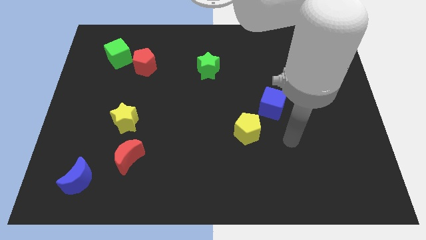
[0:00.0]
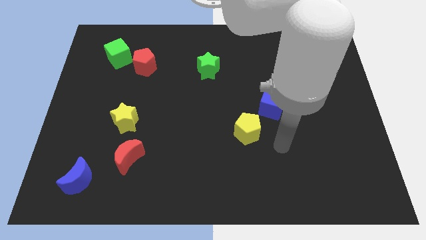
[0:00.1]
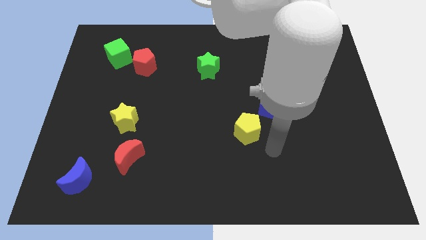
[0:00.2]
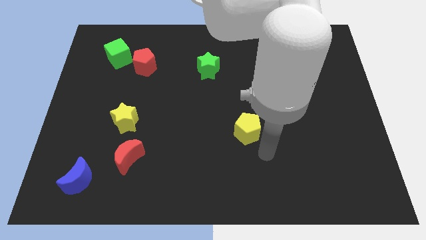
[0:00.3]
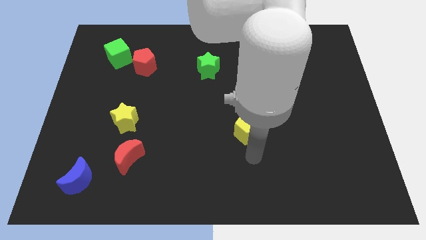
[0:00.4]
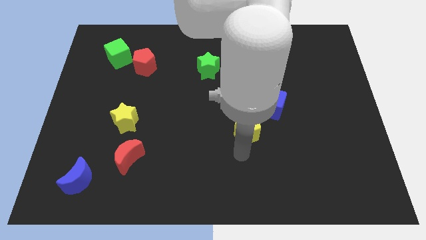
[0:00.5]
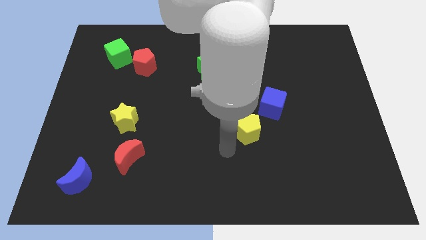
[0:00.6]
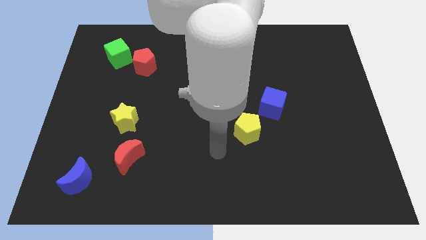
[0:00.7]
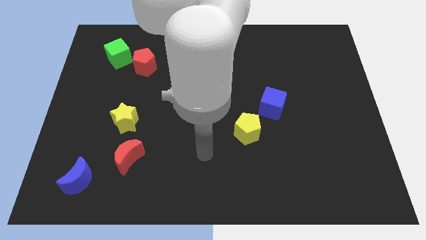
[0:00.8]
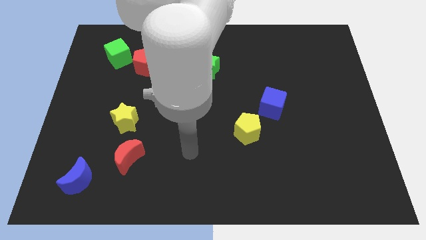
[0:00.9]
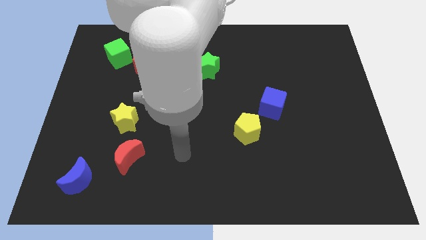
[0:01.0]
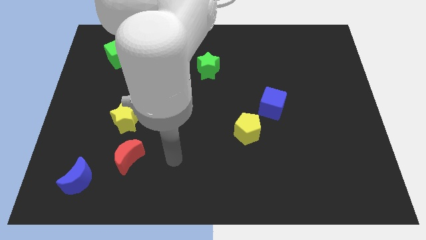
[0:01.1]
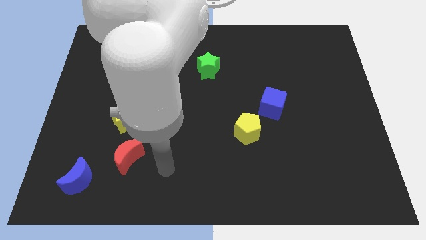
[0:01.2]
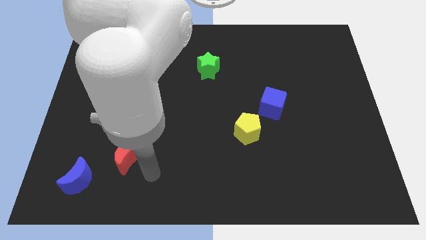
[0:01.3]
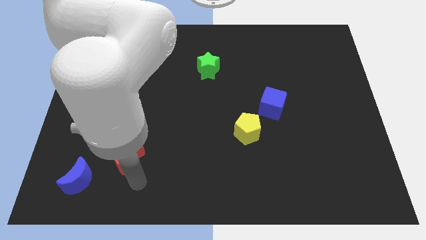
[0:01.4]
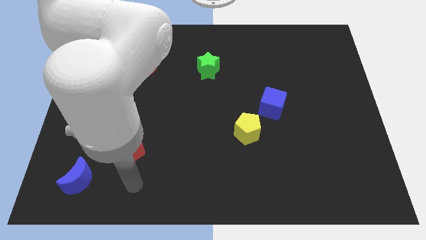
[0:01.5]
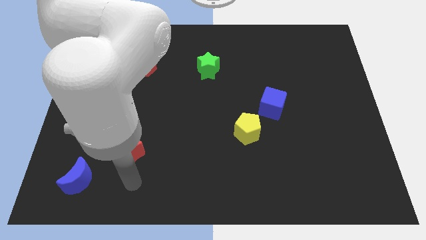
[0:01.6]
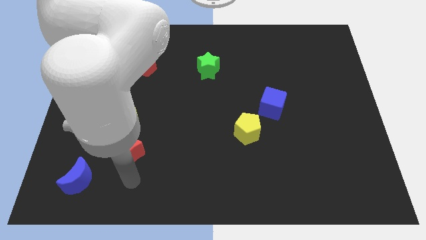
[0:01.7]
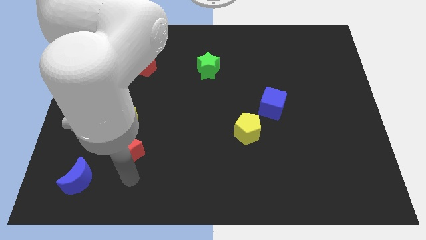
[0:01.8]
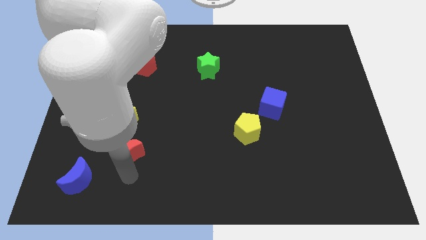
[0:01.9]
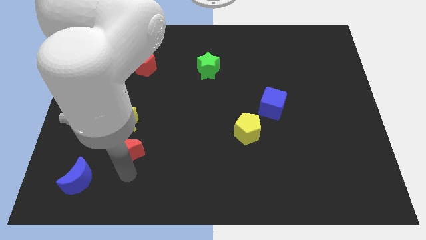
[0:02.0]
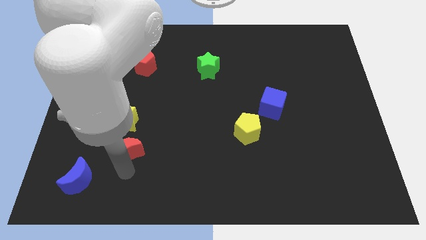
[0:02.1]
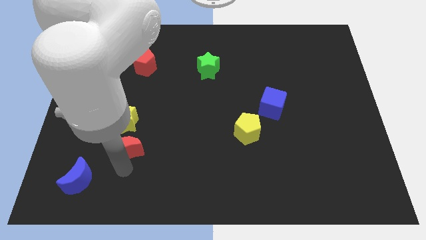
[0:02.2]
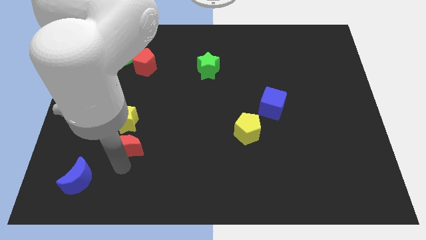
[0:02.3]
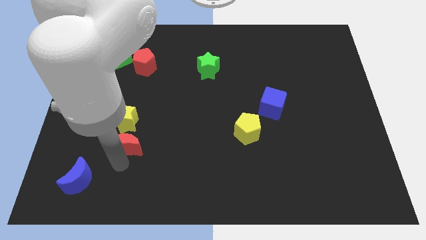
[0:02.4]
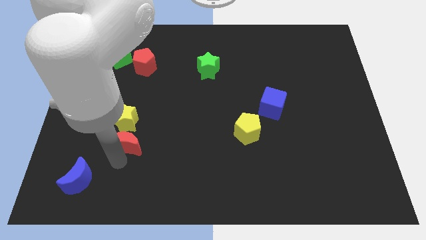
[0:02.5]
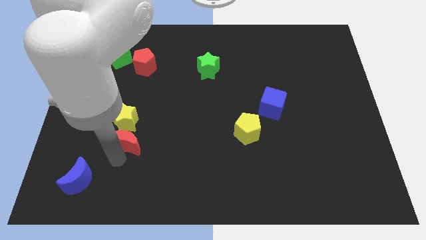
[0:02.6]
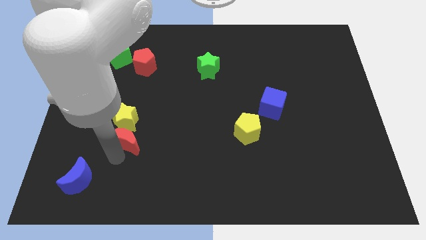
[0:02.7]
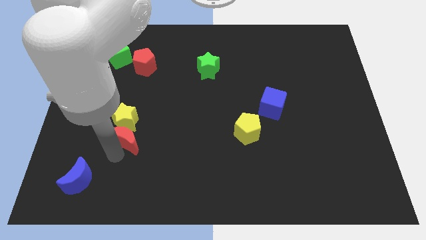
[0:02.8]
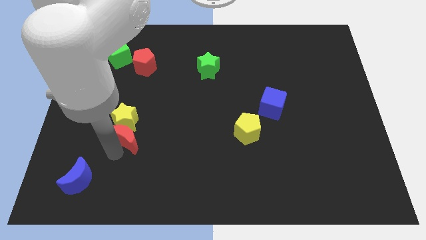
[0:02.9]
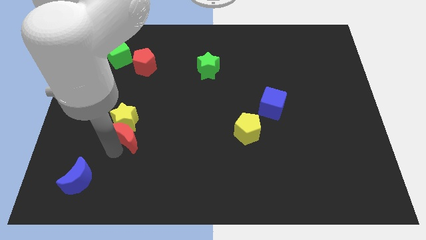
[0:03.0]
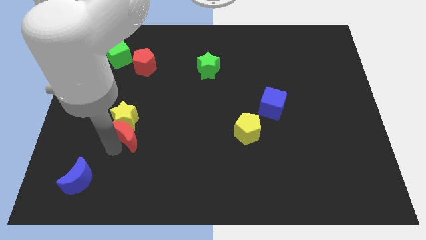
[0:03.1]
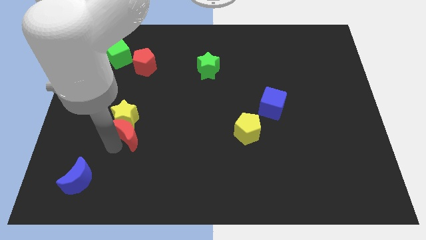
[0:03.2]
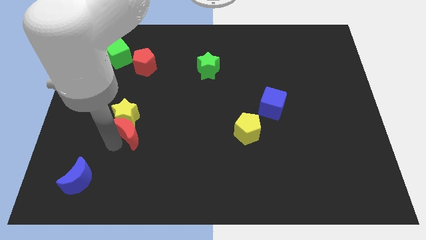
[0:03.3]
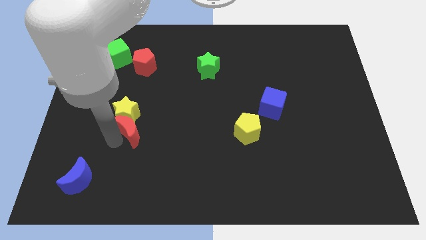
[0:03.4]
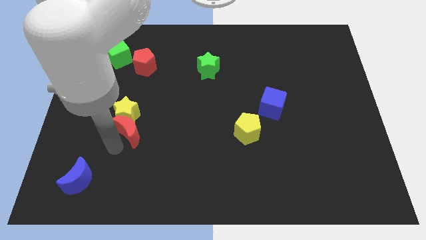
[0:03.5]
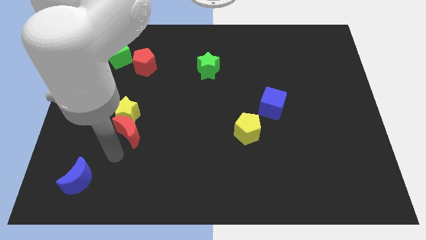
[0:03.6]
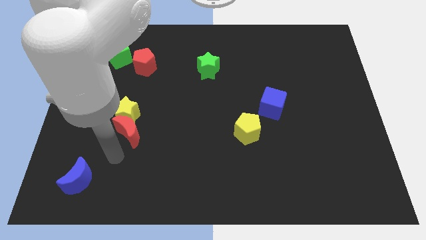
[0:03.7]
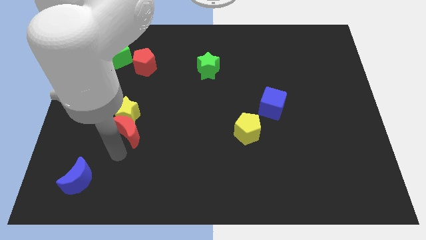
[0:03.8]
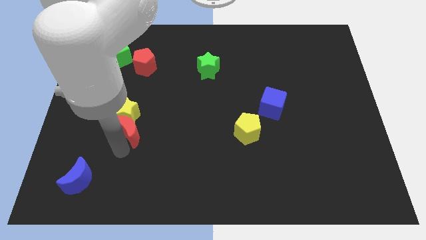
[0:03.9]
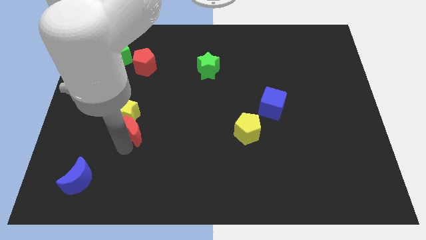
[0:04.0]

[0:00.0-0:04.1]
slide the red moon upwards slightly

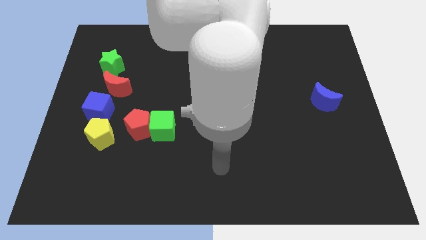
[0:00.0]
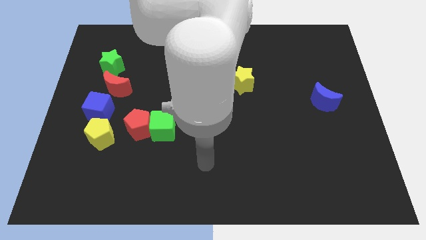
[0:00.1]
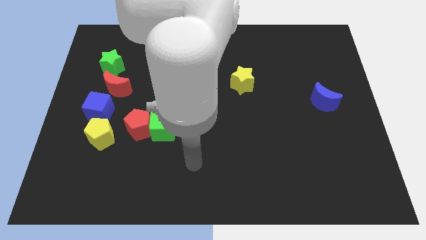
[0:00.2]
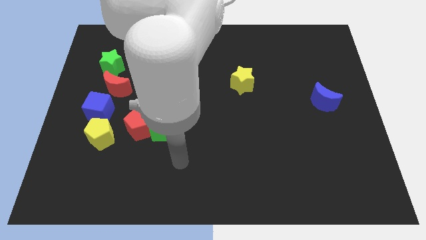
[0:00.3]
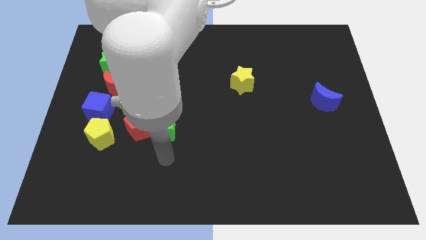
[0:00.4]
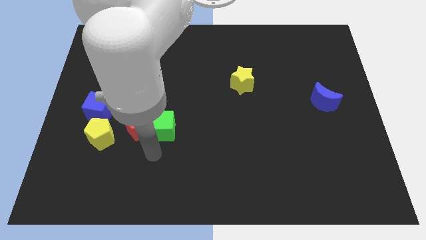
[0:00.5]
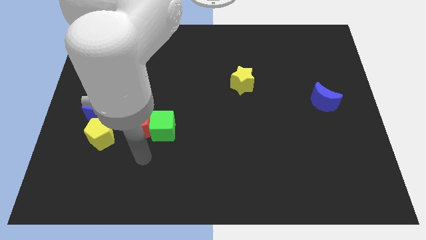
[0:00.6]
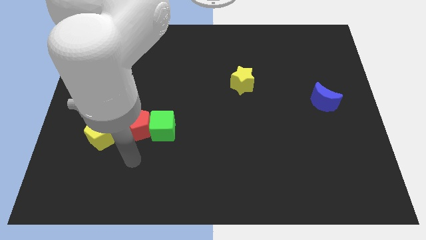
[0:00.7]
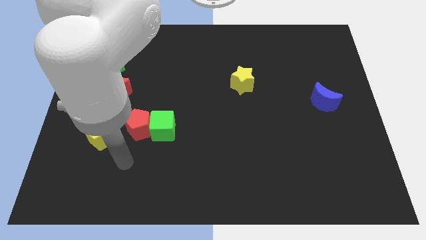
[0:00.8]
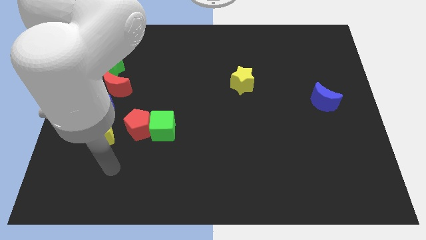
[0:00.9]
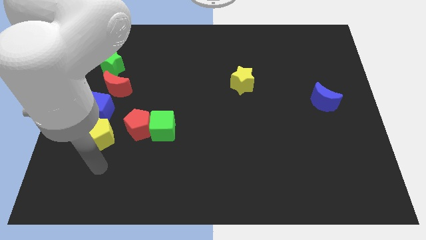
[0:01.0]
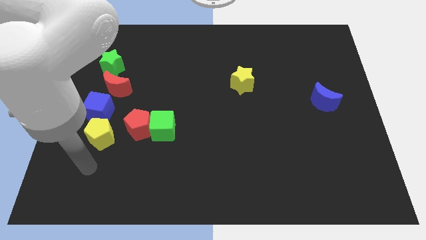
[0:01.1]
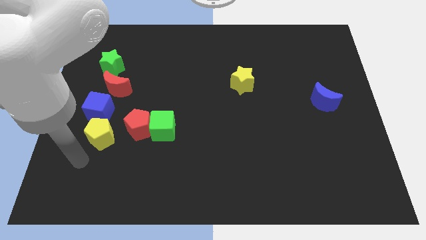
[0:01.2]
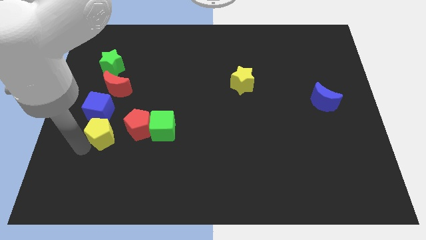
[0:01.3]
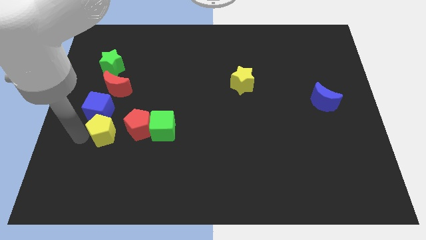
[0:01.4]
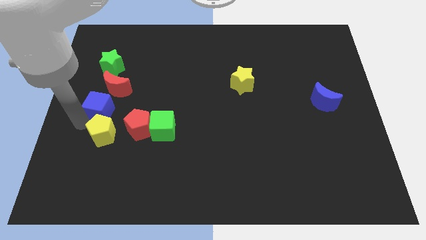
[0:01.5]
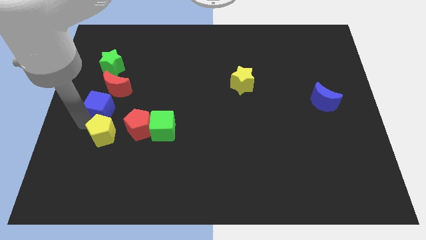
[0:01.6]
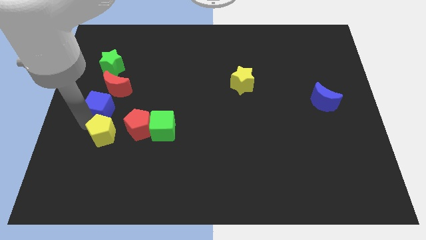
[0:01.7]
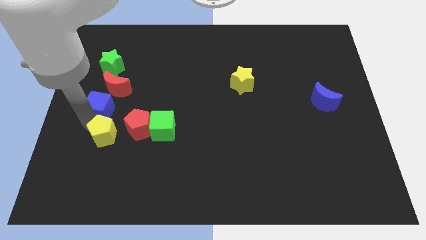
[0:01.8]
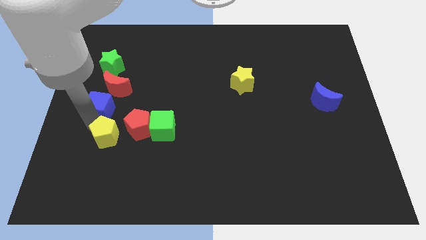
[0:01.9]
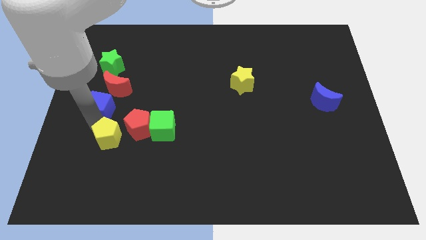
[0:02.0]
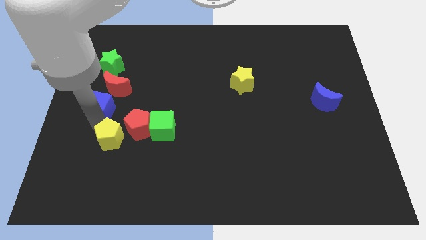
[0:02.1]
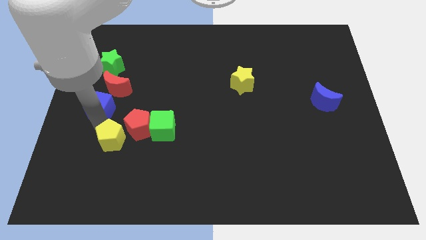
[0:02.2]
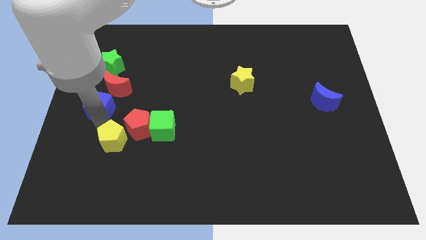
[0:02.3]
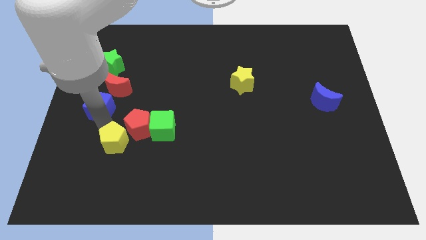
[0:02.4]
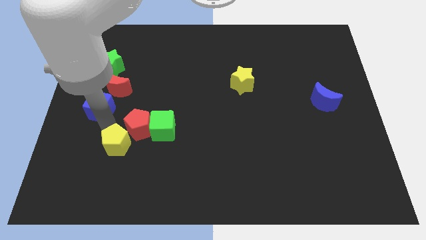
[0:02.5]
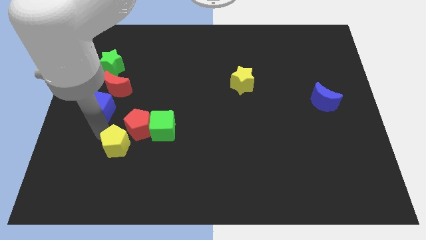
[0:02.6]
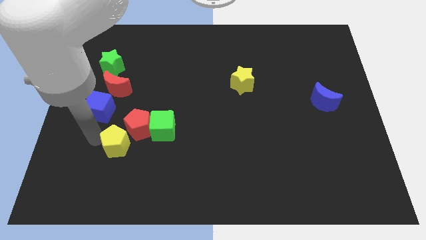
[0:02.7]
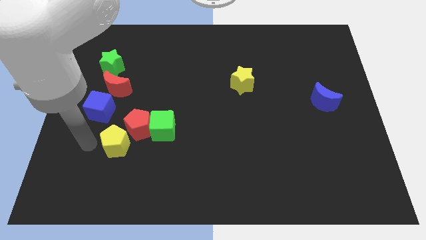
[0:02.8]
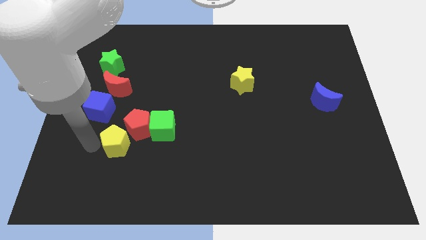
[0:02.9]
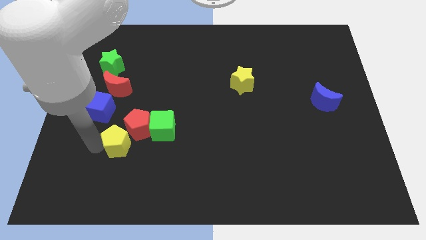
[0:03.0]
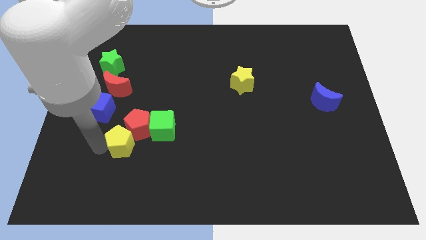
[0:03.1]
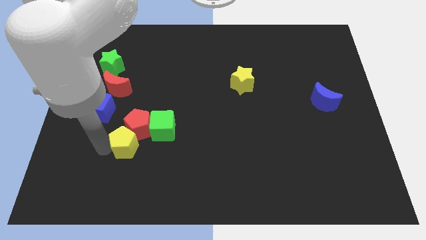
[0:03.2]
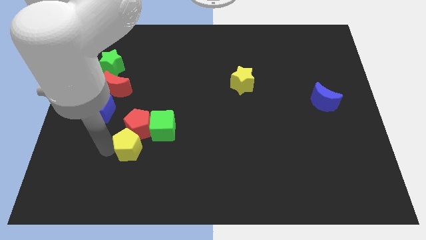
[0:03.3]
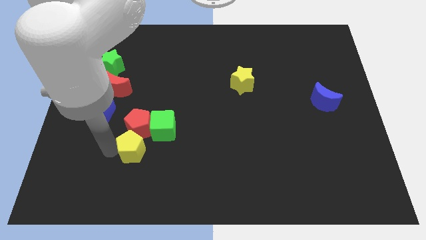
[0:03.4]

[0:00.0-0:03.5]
move the yellow pentagon right a little

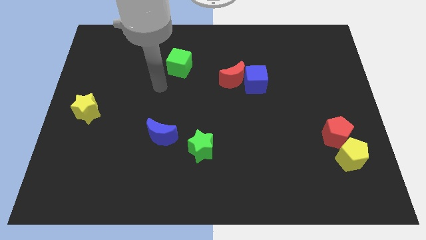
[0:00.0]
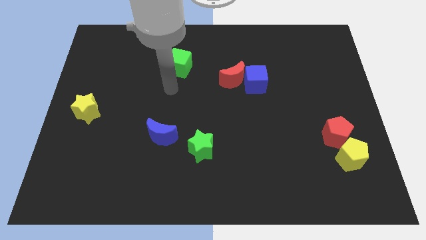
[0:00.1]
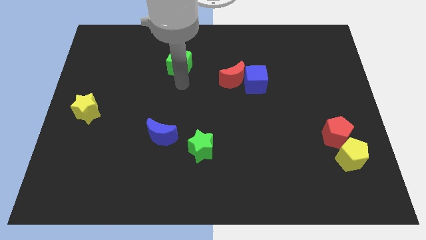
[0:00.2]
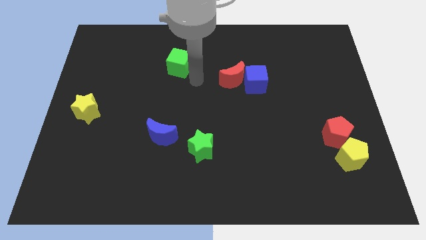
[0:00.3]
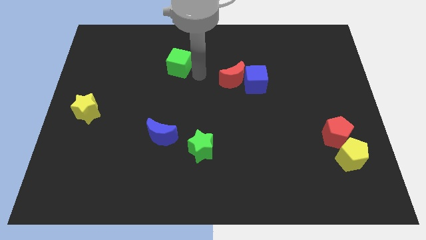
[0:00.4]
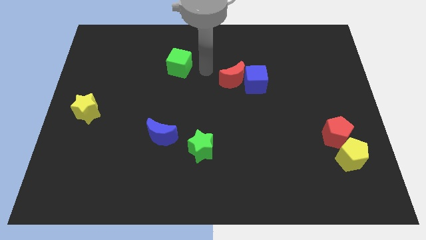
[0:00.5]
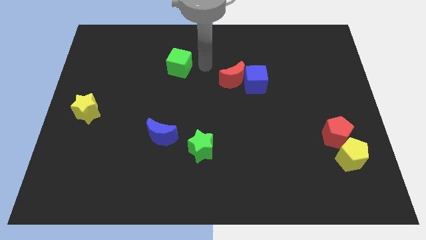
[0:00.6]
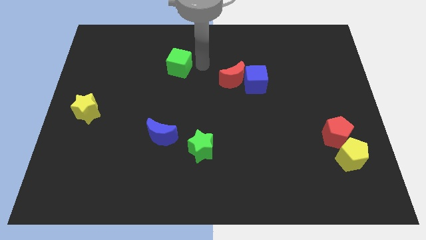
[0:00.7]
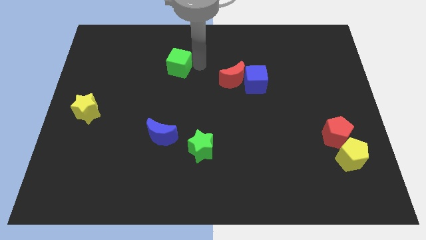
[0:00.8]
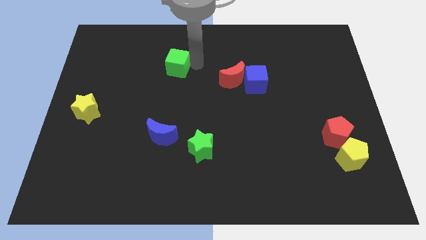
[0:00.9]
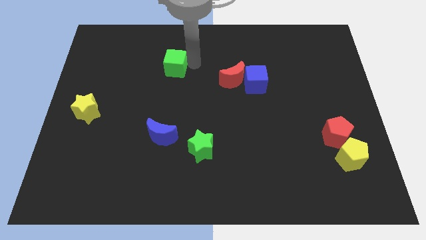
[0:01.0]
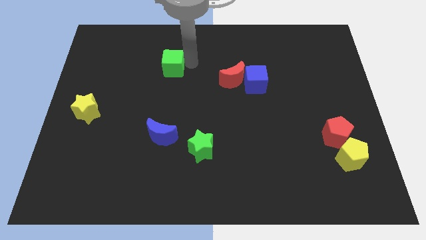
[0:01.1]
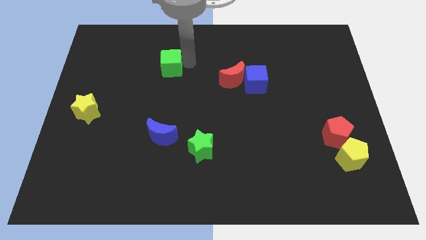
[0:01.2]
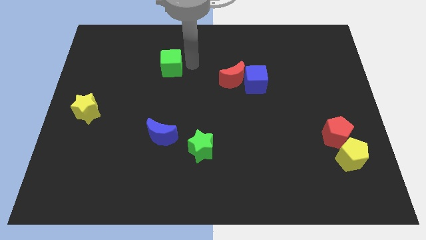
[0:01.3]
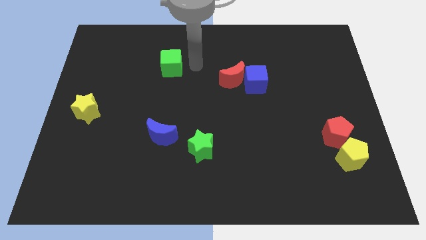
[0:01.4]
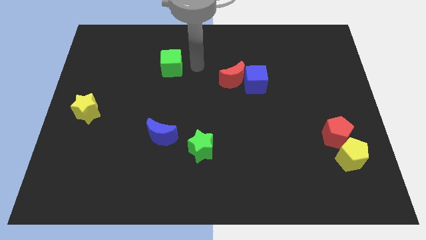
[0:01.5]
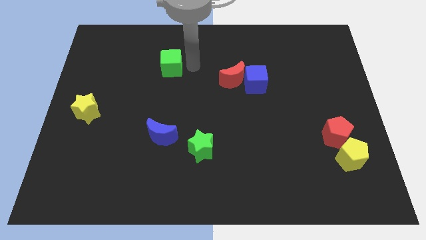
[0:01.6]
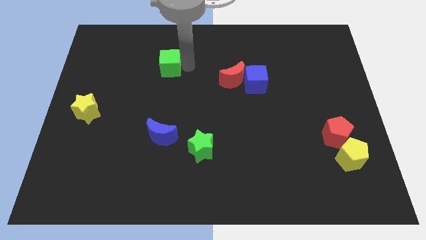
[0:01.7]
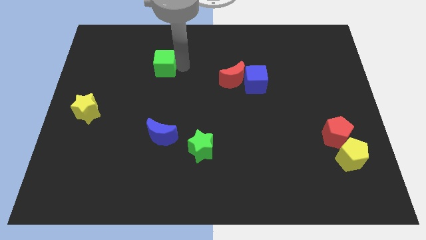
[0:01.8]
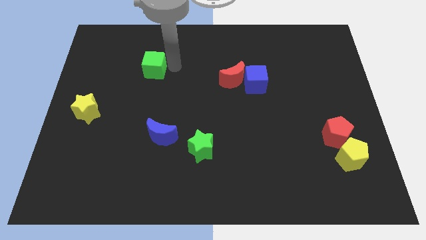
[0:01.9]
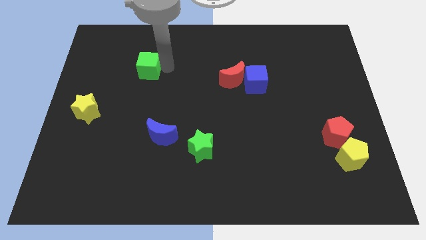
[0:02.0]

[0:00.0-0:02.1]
push the green cube a little to the left
